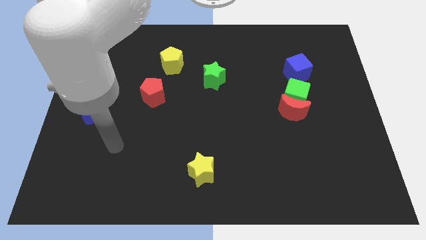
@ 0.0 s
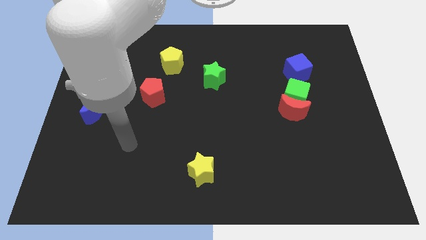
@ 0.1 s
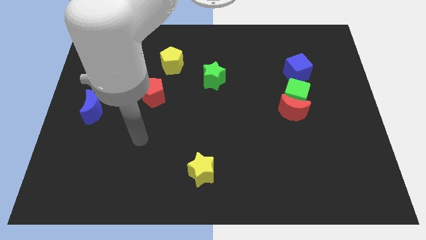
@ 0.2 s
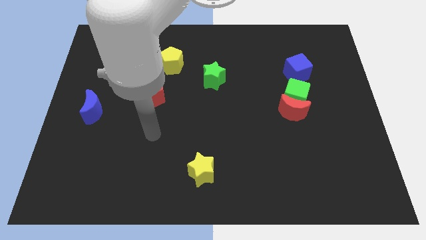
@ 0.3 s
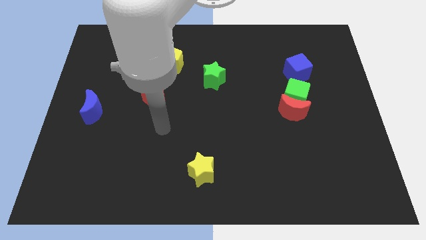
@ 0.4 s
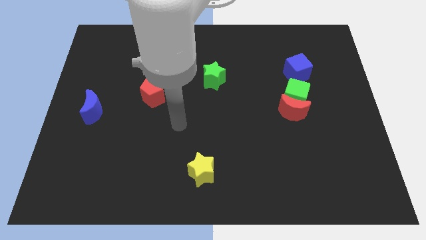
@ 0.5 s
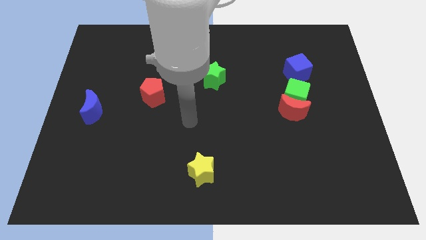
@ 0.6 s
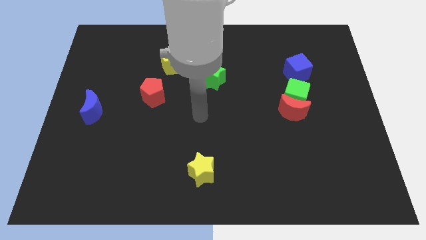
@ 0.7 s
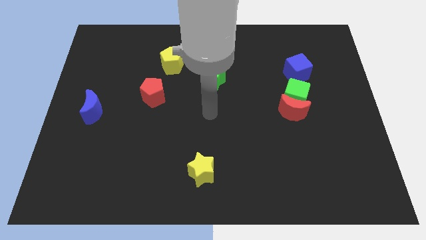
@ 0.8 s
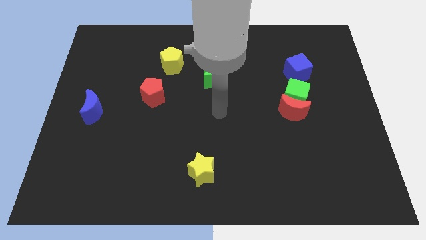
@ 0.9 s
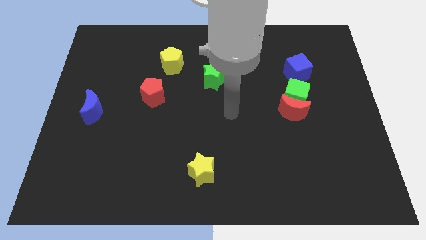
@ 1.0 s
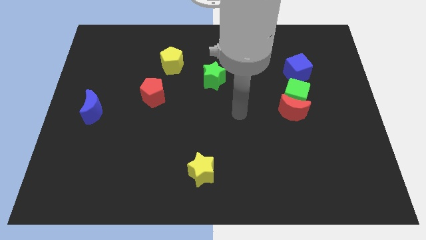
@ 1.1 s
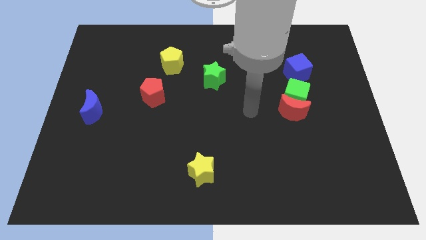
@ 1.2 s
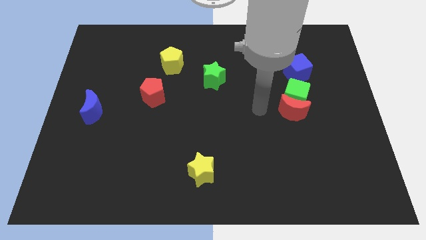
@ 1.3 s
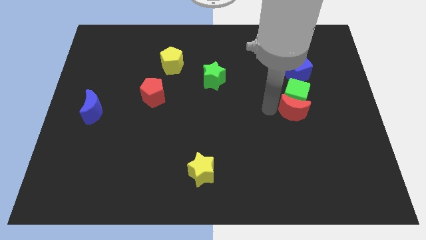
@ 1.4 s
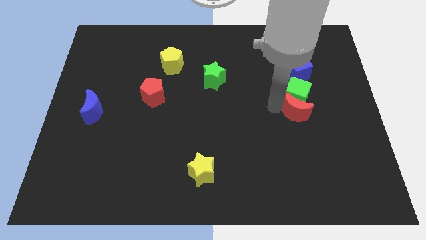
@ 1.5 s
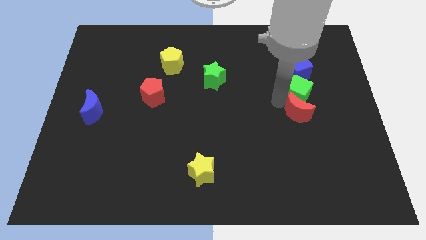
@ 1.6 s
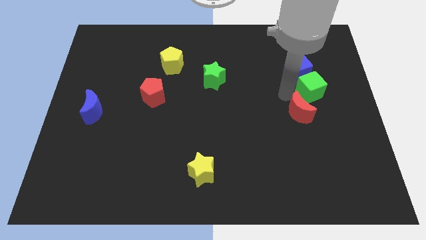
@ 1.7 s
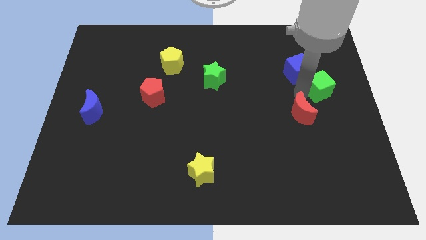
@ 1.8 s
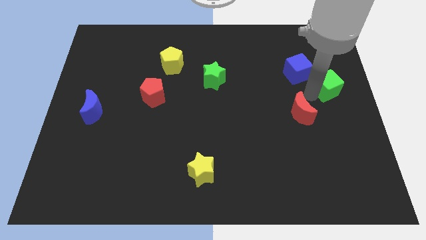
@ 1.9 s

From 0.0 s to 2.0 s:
pull the red moon apart from the green cube

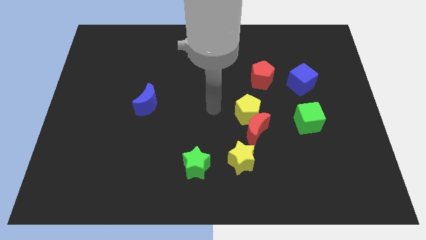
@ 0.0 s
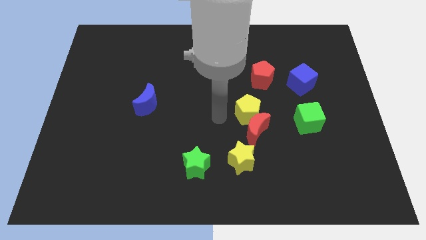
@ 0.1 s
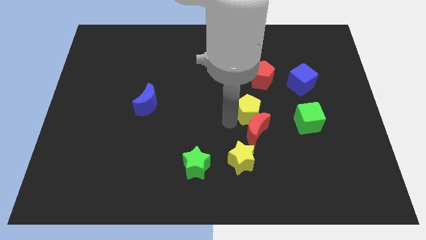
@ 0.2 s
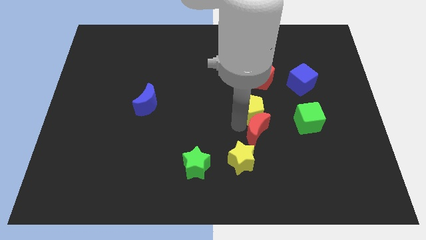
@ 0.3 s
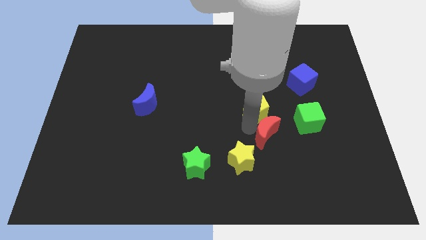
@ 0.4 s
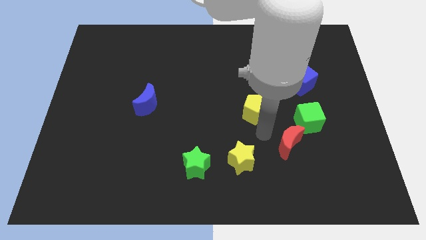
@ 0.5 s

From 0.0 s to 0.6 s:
move the yellow pentagon away from the red moon

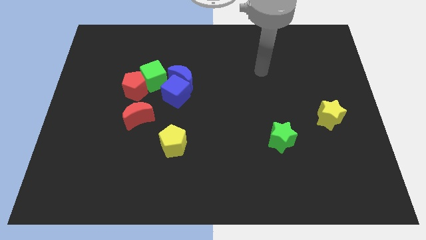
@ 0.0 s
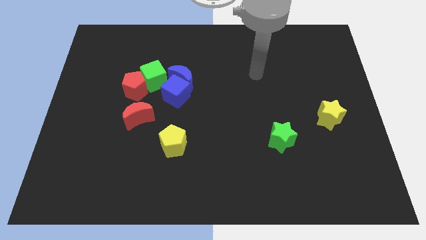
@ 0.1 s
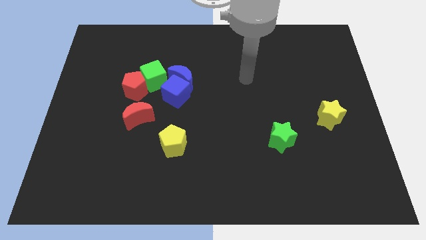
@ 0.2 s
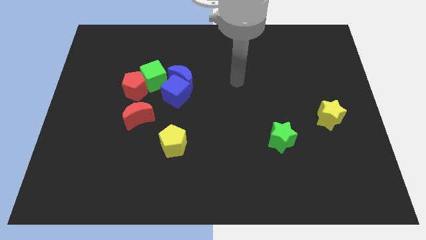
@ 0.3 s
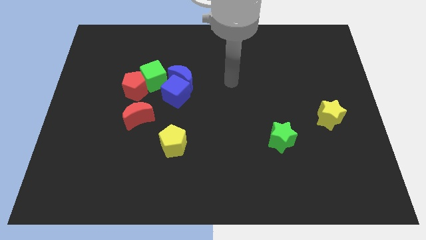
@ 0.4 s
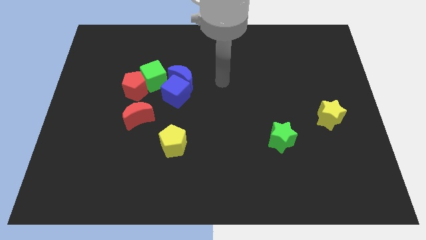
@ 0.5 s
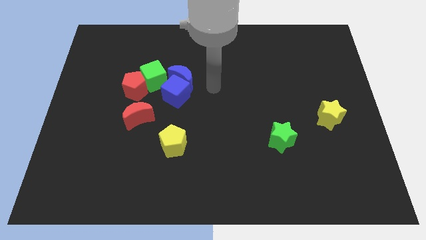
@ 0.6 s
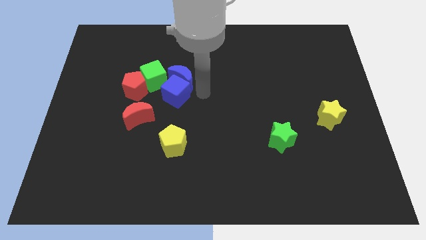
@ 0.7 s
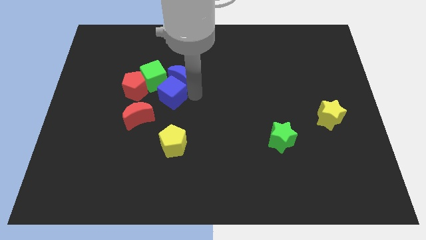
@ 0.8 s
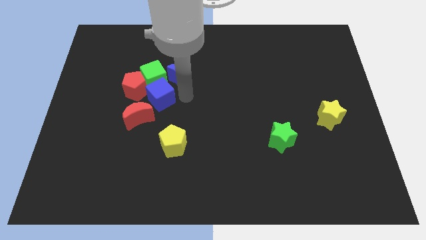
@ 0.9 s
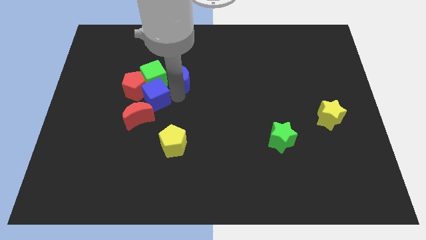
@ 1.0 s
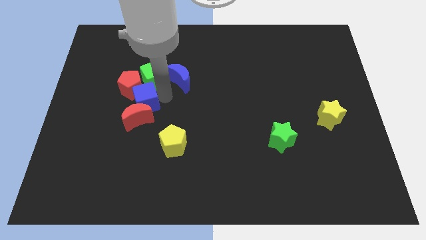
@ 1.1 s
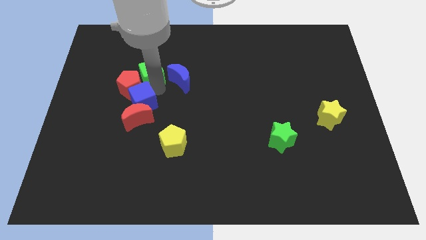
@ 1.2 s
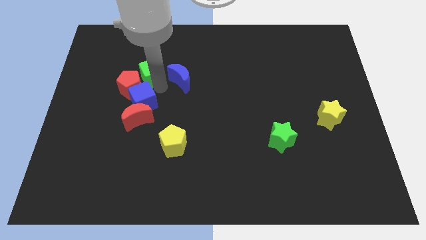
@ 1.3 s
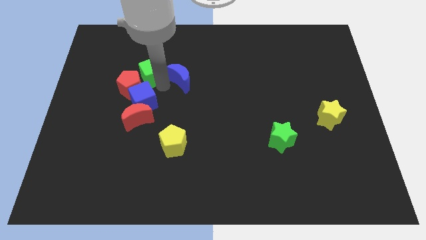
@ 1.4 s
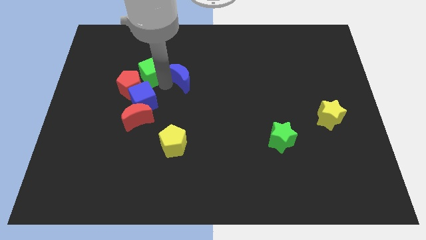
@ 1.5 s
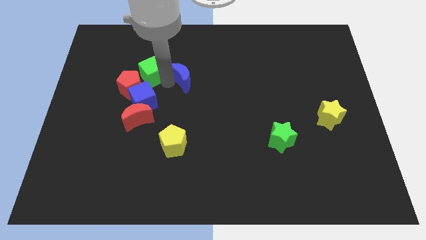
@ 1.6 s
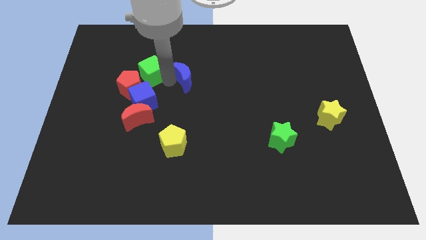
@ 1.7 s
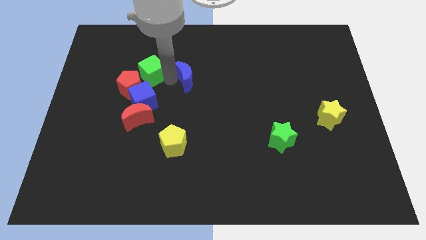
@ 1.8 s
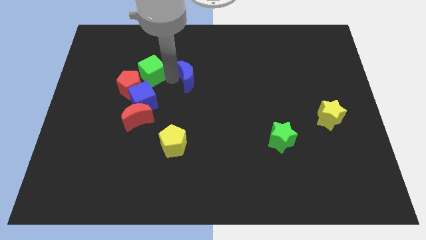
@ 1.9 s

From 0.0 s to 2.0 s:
separate the blue moon from the blue cube and green cube

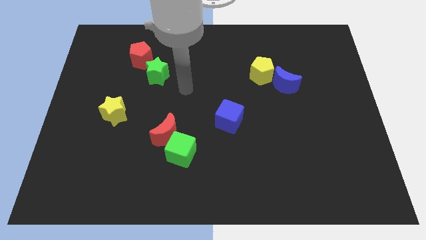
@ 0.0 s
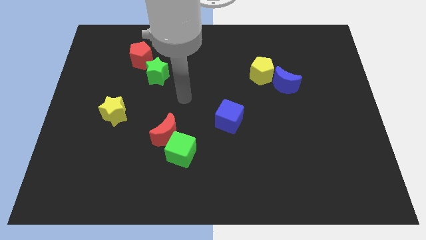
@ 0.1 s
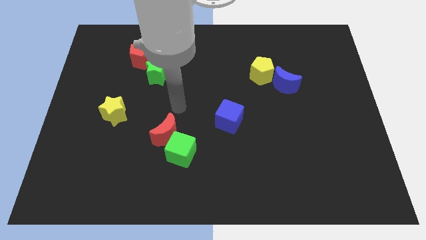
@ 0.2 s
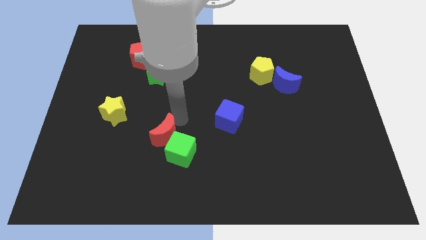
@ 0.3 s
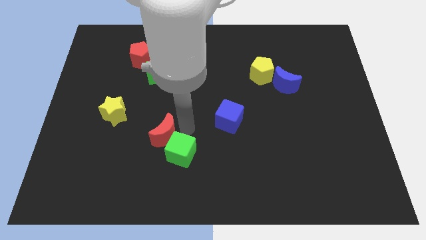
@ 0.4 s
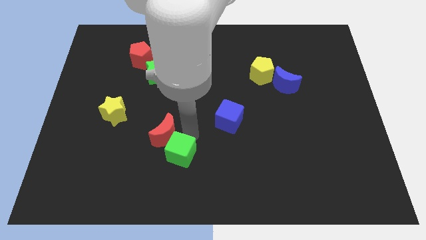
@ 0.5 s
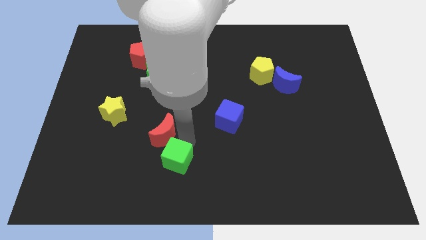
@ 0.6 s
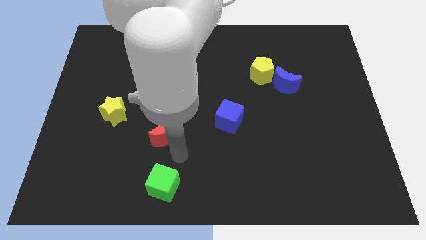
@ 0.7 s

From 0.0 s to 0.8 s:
move the red moon away from the green cube

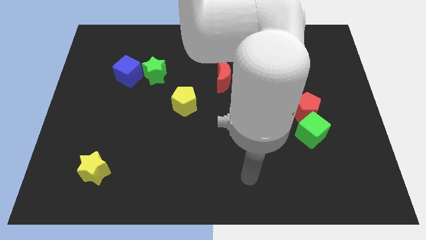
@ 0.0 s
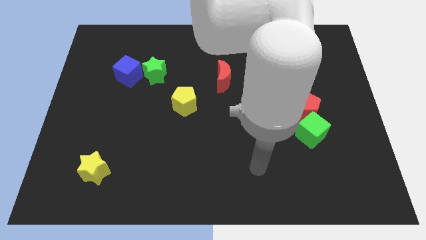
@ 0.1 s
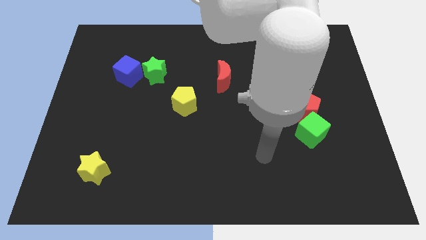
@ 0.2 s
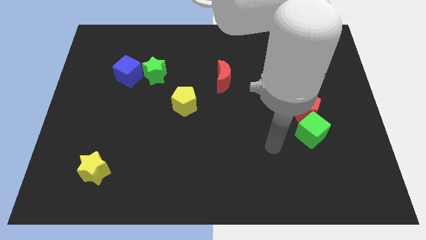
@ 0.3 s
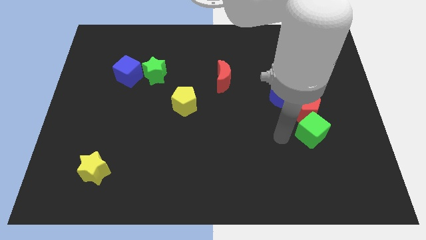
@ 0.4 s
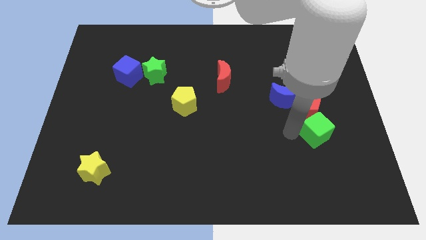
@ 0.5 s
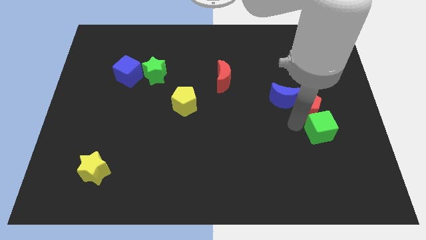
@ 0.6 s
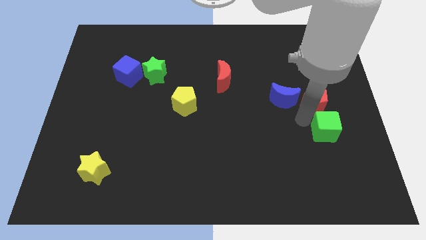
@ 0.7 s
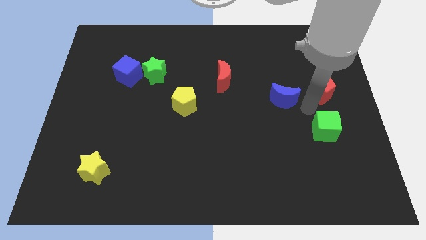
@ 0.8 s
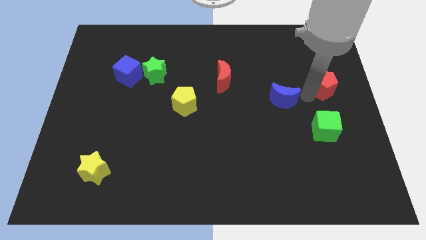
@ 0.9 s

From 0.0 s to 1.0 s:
pull the blue moon apart from the red pentagon

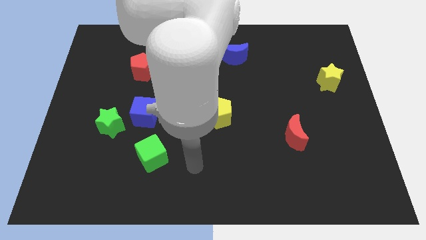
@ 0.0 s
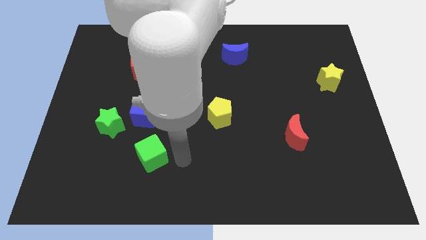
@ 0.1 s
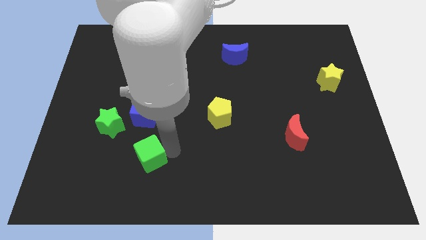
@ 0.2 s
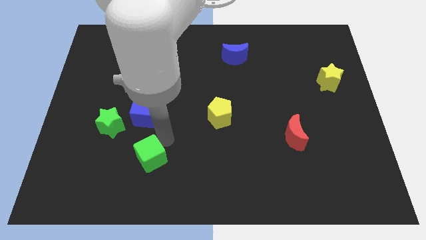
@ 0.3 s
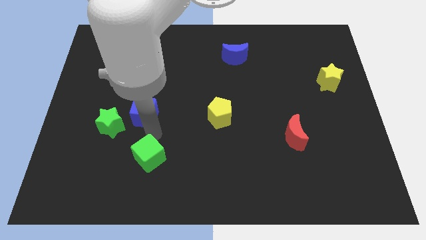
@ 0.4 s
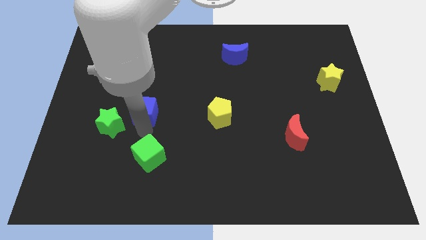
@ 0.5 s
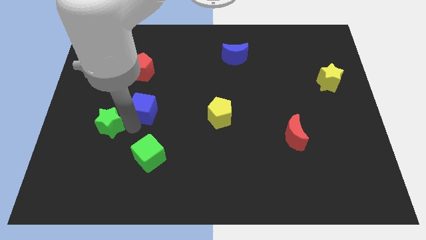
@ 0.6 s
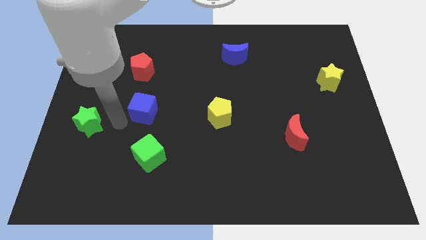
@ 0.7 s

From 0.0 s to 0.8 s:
move the blue cube away from the green star

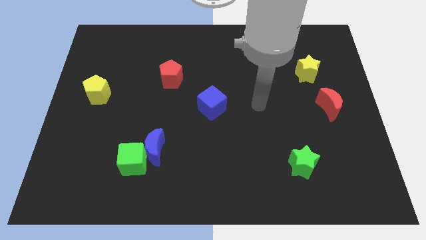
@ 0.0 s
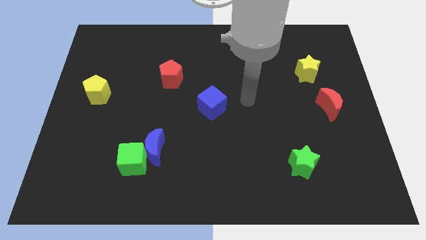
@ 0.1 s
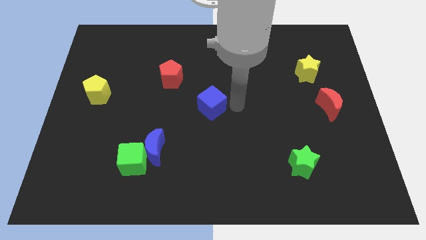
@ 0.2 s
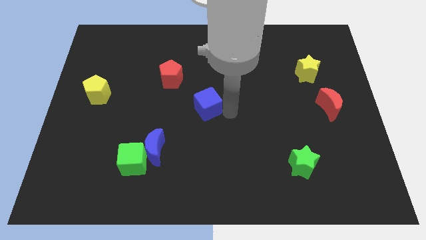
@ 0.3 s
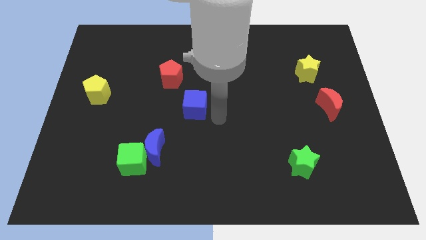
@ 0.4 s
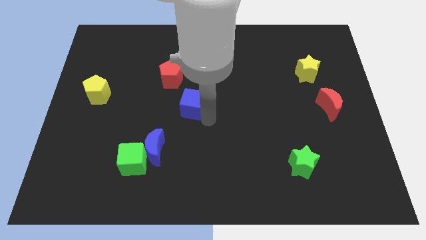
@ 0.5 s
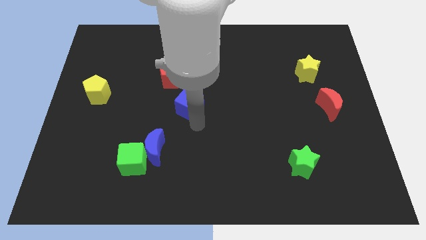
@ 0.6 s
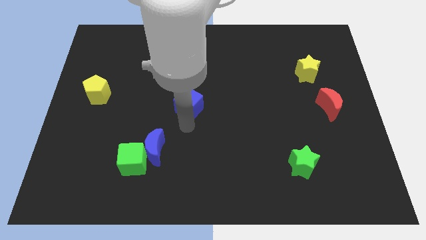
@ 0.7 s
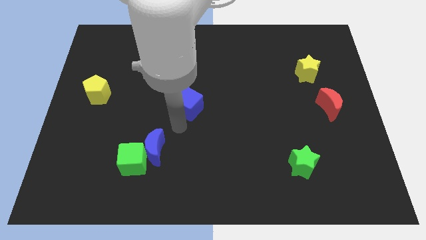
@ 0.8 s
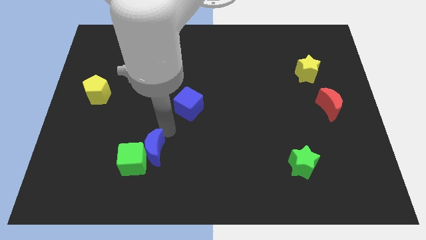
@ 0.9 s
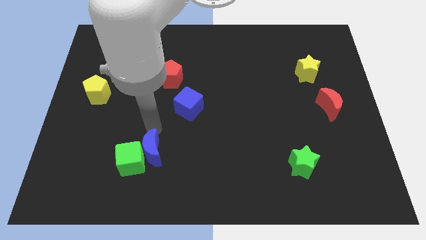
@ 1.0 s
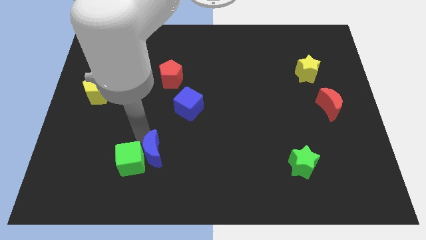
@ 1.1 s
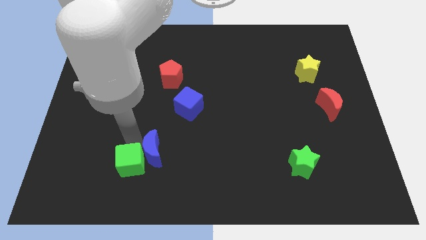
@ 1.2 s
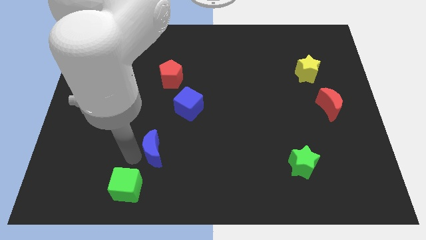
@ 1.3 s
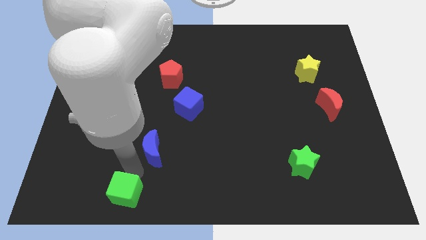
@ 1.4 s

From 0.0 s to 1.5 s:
separate the blue moon from the green cube

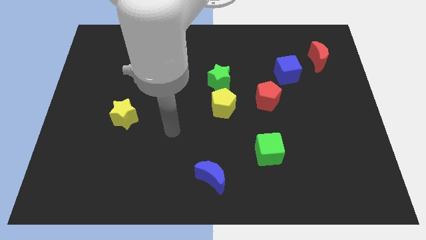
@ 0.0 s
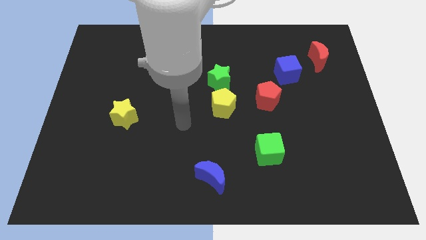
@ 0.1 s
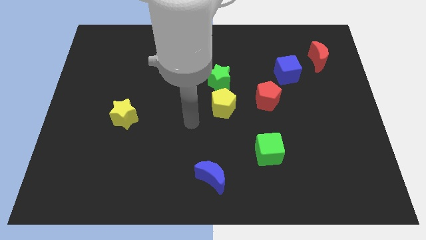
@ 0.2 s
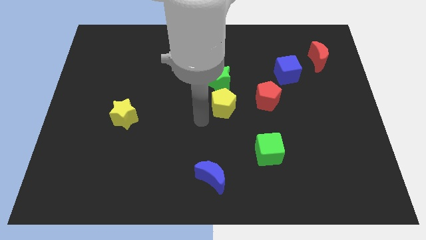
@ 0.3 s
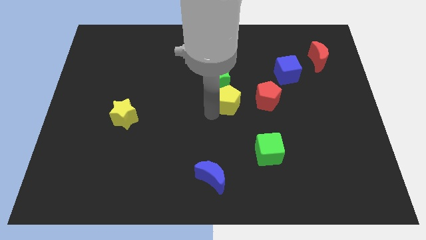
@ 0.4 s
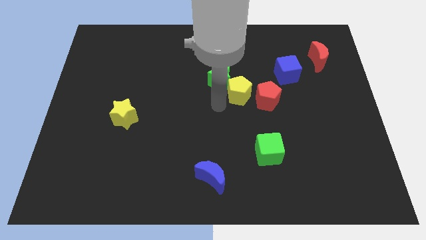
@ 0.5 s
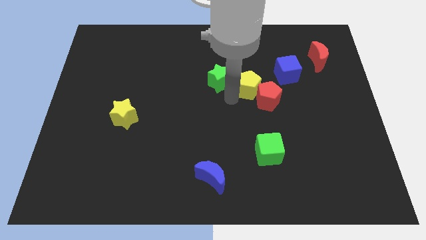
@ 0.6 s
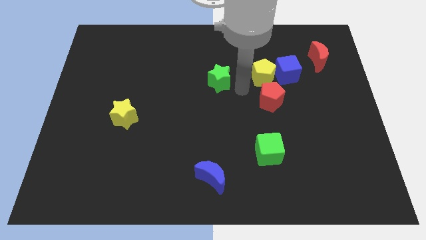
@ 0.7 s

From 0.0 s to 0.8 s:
pull the green star apart from the yellow pentagon
